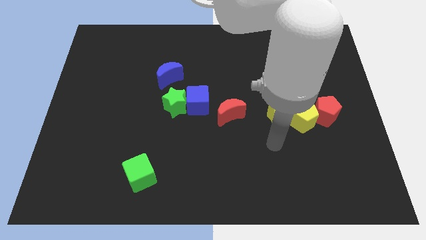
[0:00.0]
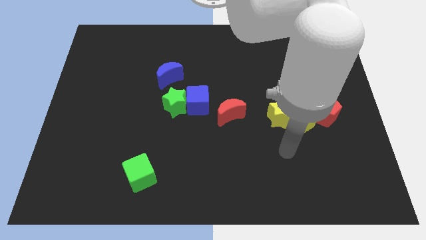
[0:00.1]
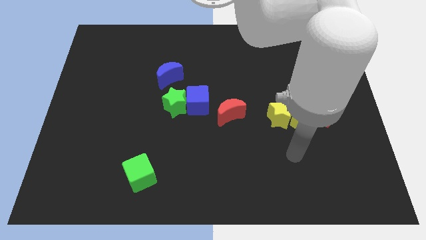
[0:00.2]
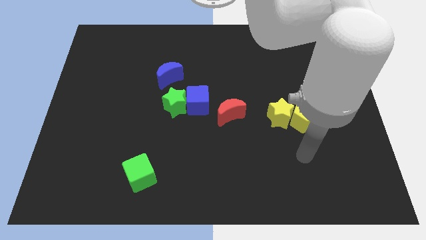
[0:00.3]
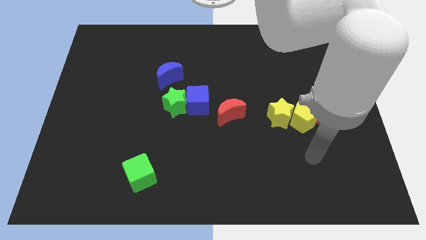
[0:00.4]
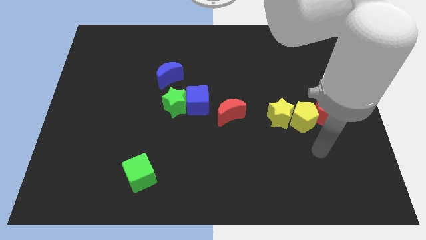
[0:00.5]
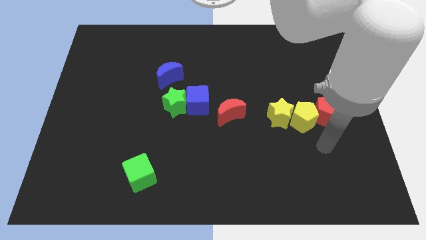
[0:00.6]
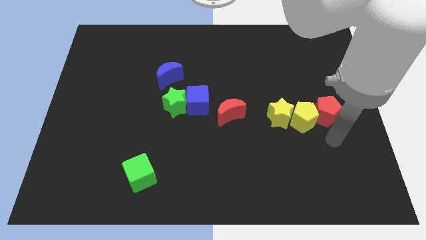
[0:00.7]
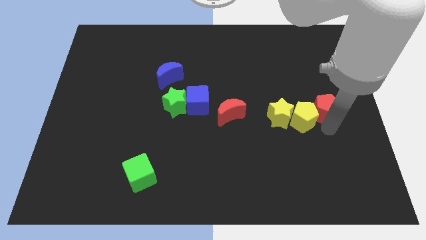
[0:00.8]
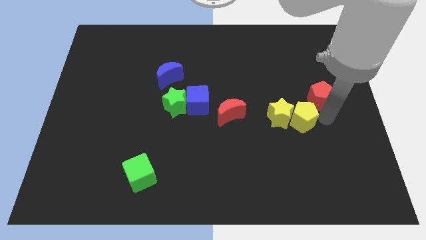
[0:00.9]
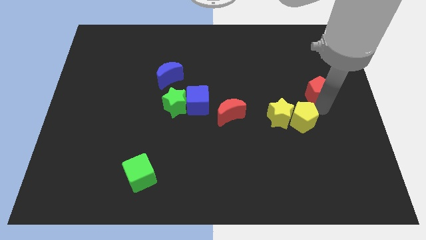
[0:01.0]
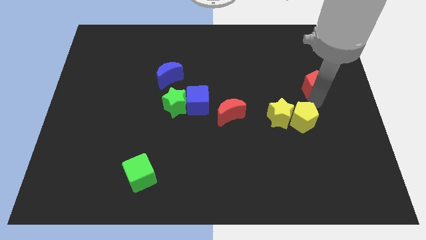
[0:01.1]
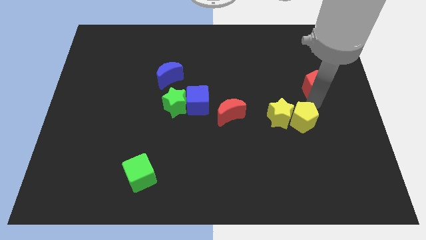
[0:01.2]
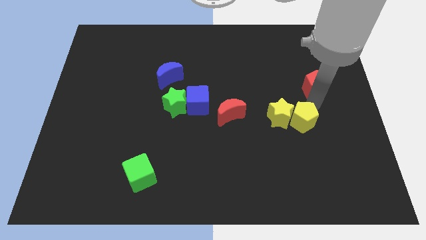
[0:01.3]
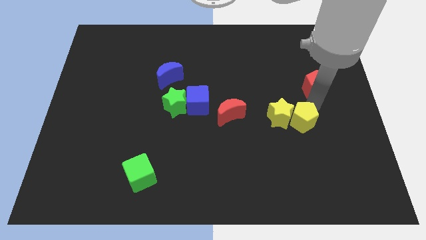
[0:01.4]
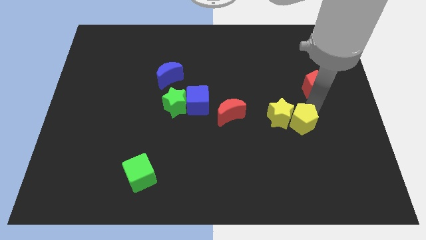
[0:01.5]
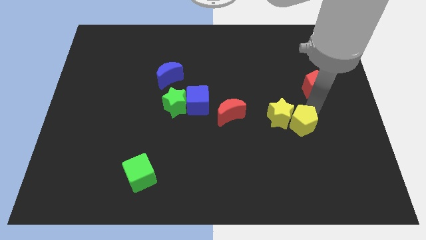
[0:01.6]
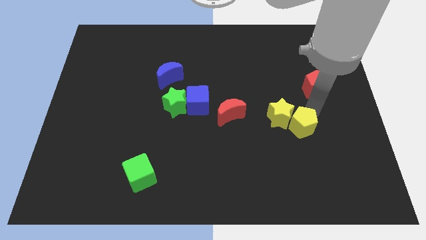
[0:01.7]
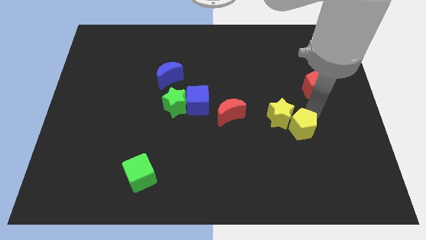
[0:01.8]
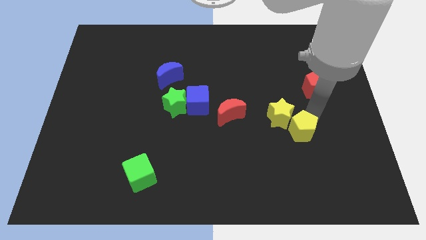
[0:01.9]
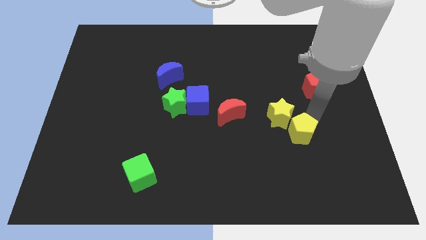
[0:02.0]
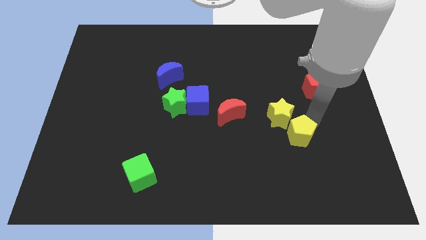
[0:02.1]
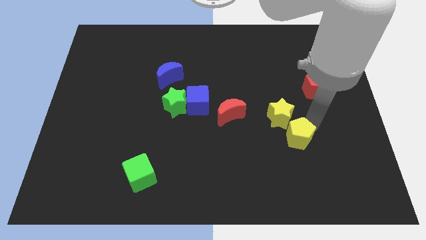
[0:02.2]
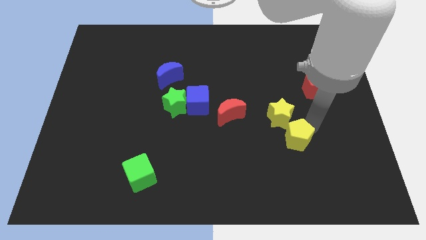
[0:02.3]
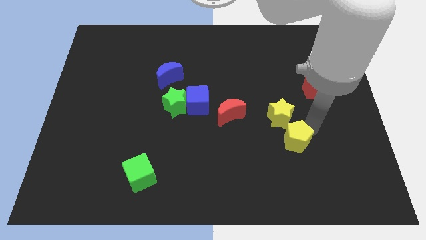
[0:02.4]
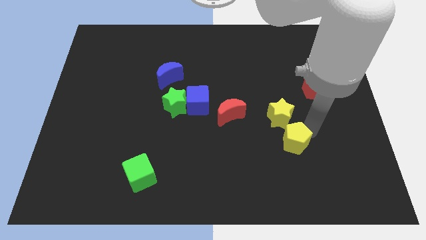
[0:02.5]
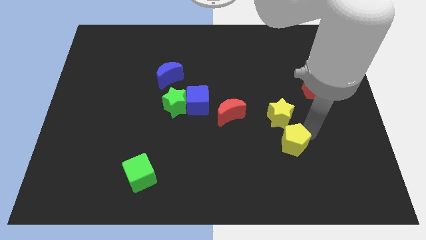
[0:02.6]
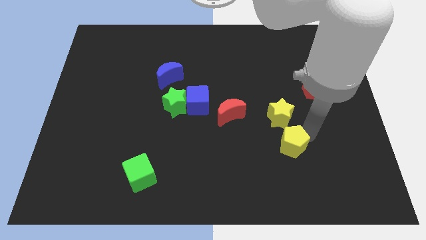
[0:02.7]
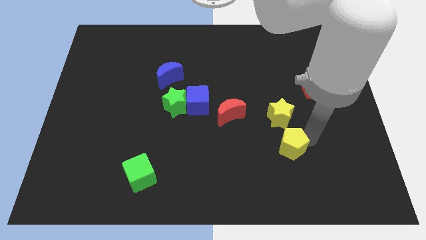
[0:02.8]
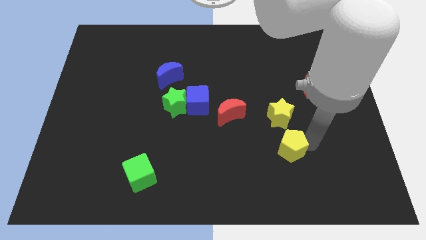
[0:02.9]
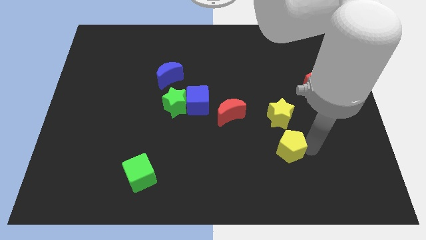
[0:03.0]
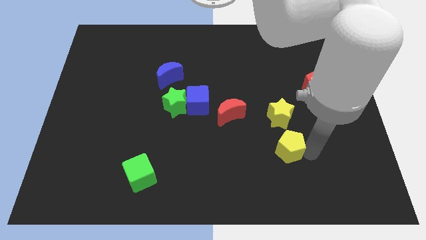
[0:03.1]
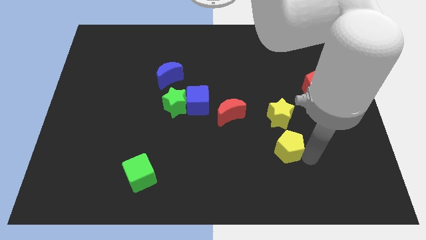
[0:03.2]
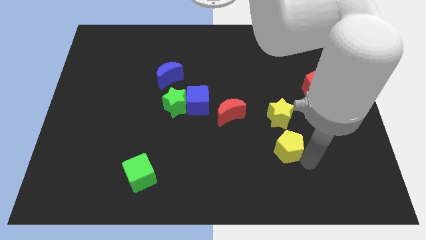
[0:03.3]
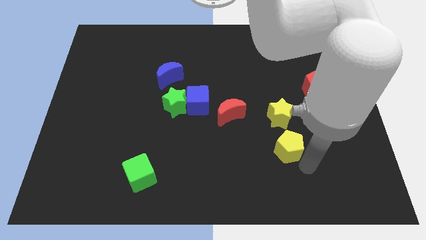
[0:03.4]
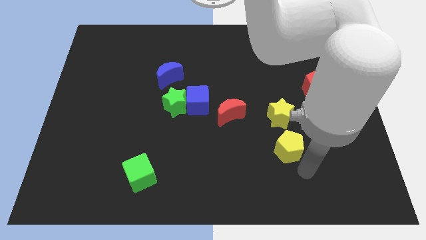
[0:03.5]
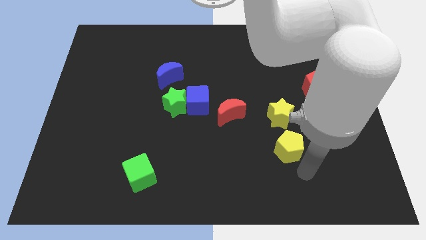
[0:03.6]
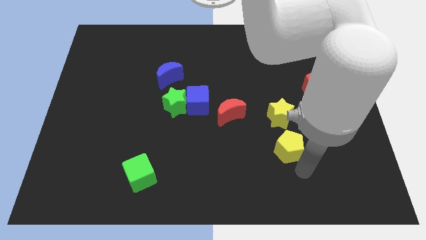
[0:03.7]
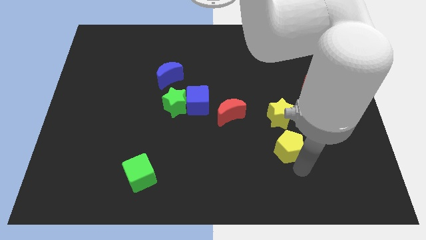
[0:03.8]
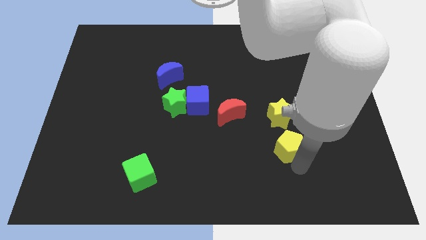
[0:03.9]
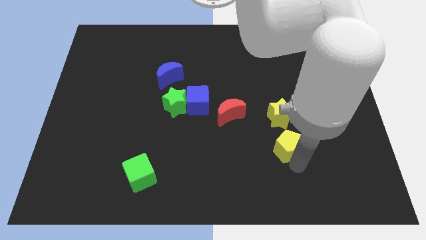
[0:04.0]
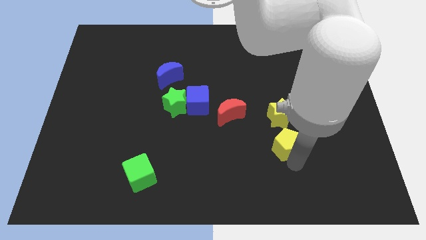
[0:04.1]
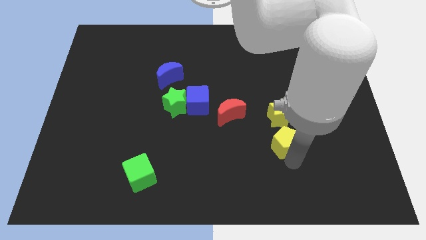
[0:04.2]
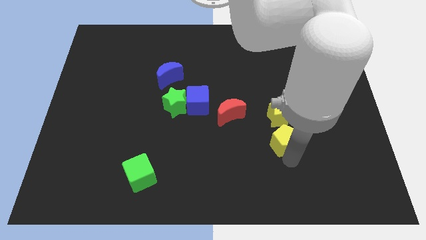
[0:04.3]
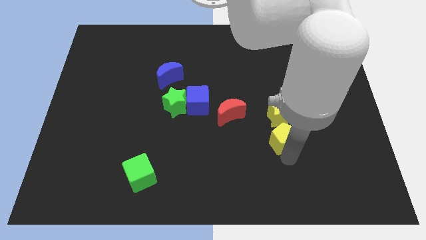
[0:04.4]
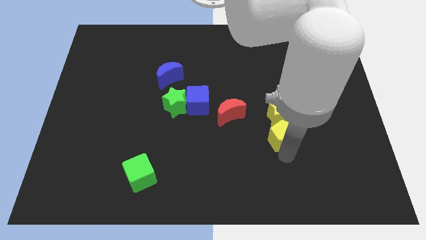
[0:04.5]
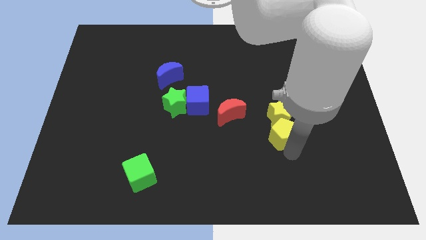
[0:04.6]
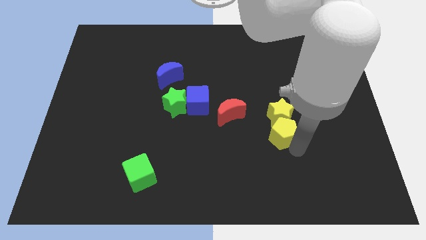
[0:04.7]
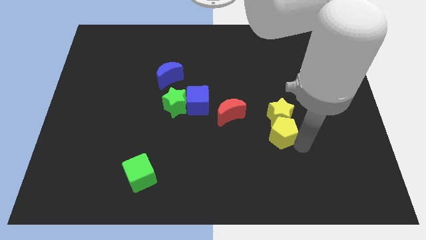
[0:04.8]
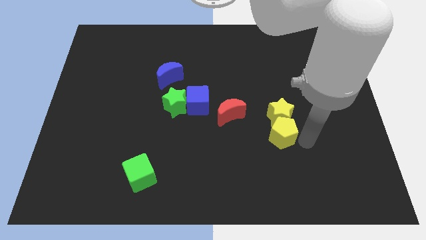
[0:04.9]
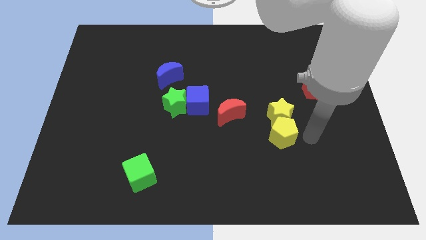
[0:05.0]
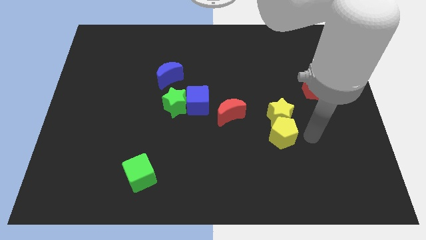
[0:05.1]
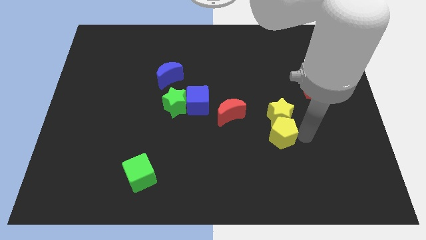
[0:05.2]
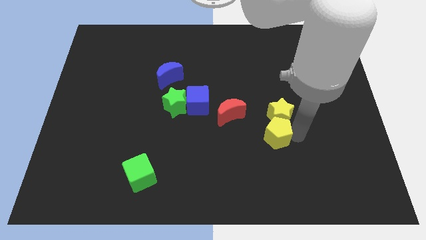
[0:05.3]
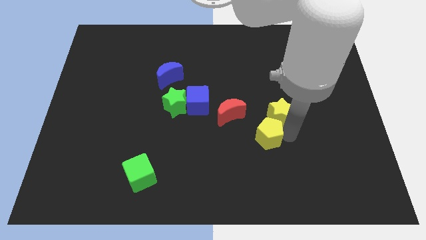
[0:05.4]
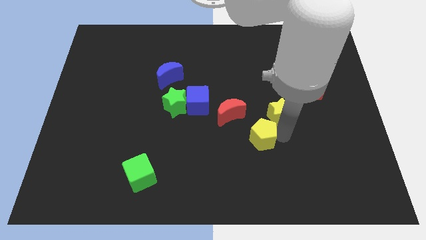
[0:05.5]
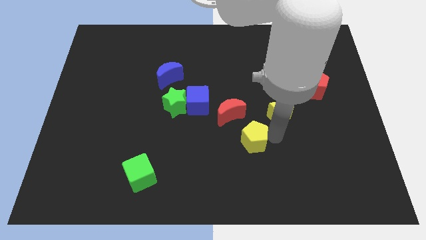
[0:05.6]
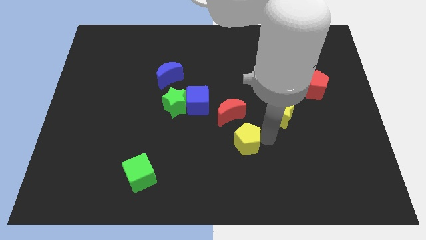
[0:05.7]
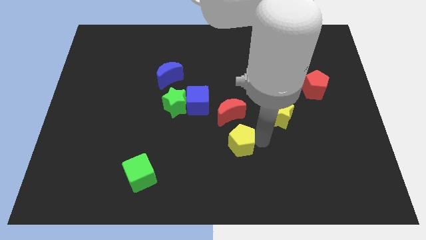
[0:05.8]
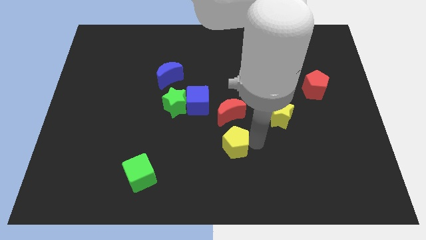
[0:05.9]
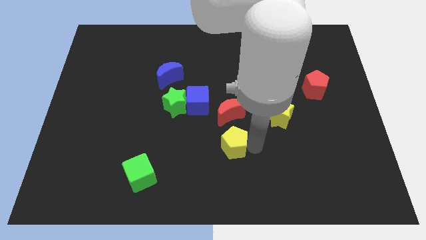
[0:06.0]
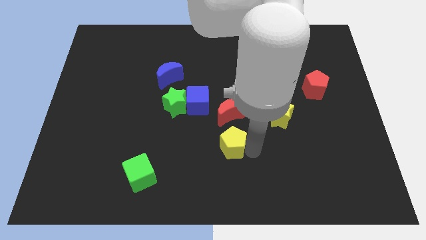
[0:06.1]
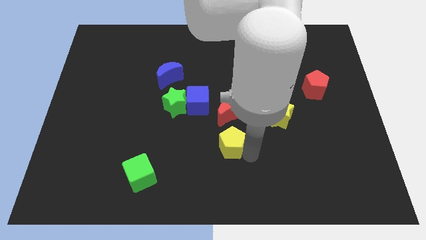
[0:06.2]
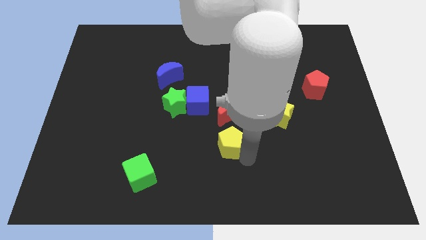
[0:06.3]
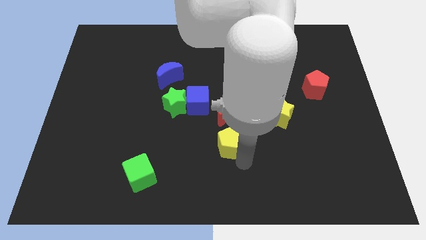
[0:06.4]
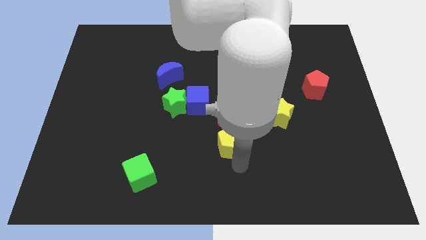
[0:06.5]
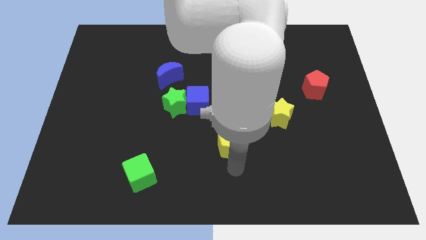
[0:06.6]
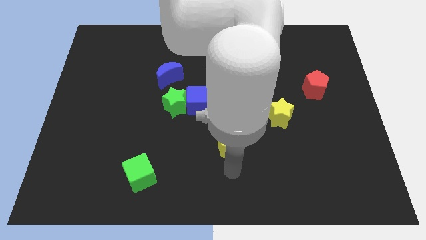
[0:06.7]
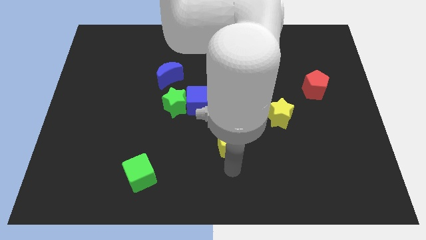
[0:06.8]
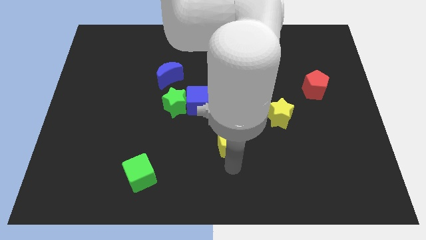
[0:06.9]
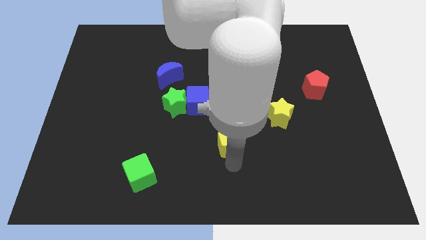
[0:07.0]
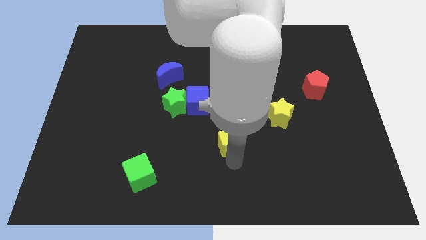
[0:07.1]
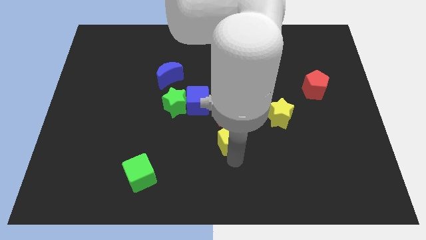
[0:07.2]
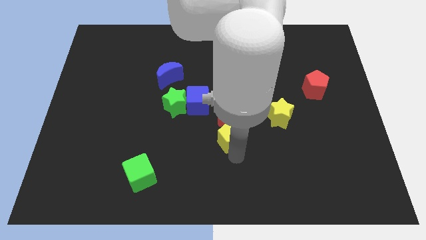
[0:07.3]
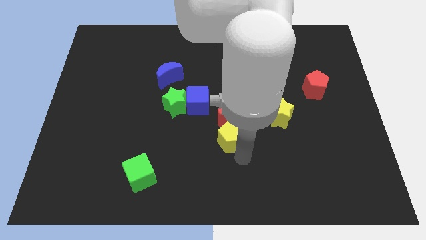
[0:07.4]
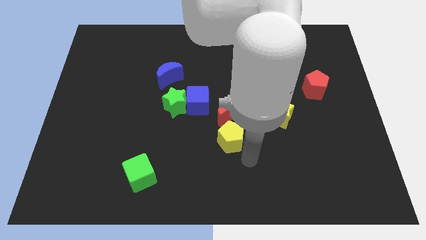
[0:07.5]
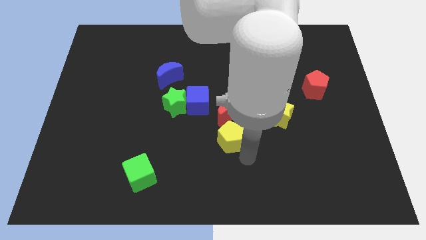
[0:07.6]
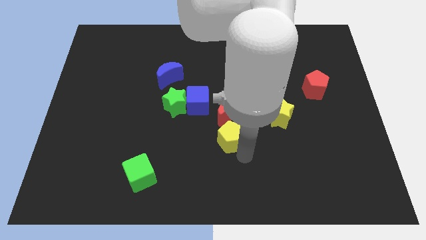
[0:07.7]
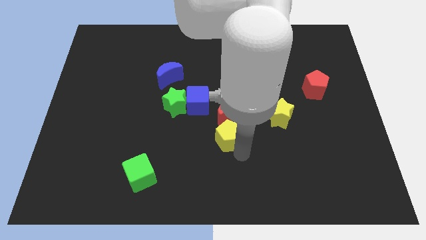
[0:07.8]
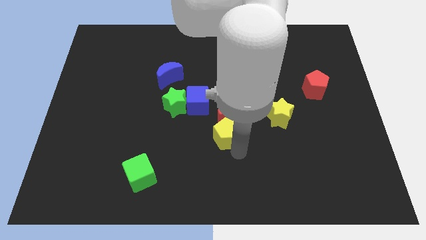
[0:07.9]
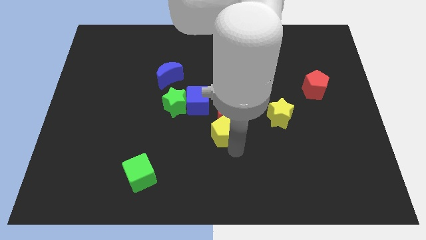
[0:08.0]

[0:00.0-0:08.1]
slide the yellow pentagon to the left side of the yellow star
